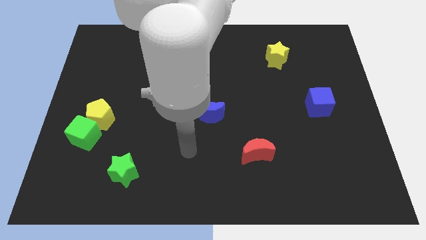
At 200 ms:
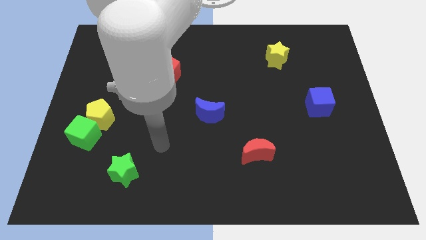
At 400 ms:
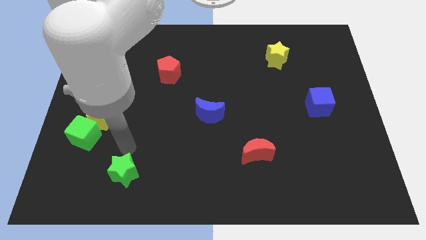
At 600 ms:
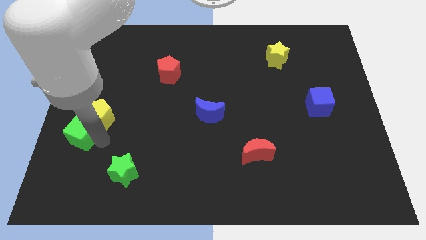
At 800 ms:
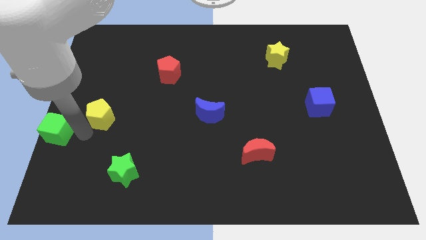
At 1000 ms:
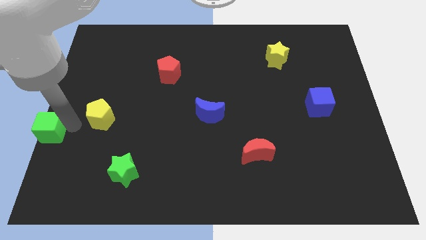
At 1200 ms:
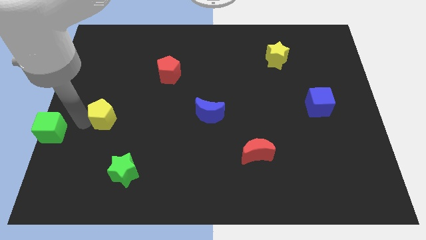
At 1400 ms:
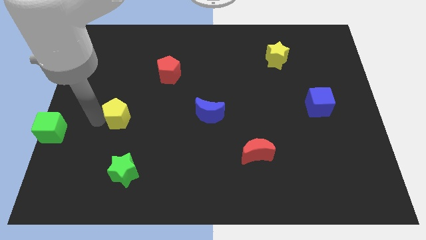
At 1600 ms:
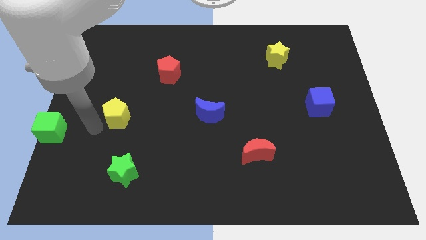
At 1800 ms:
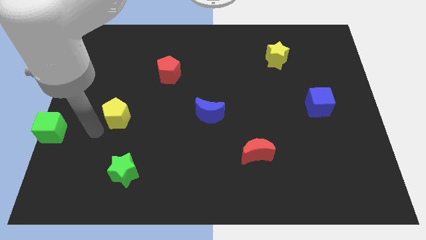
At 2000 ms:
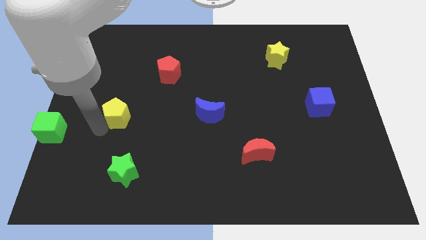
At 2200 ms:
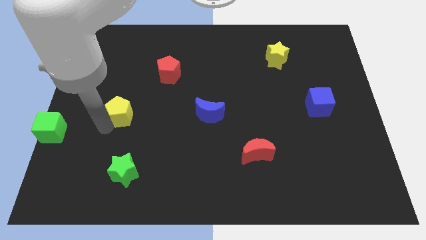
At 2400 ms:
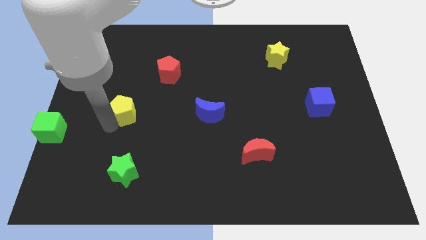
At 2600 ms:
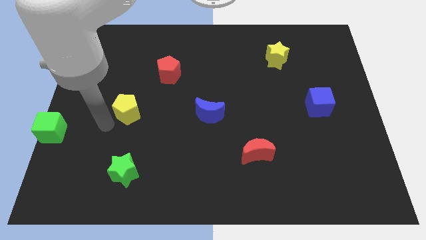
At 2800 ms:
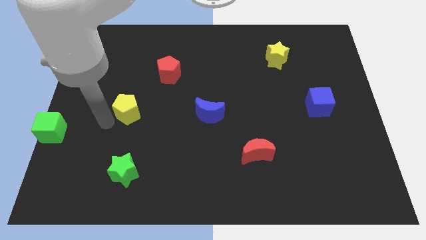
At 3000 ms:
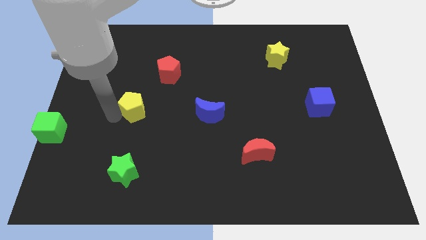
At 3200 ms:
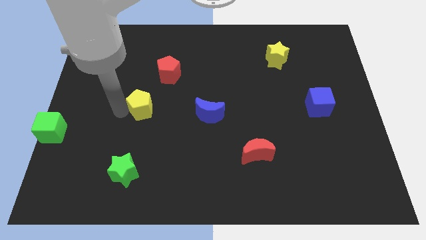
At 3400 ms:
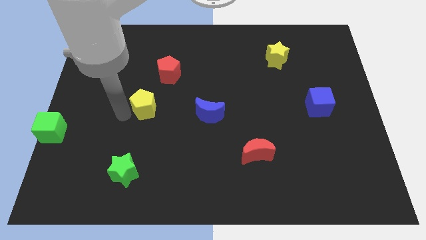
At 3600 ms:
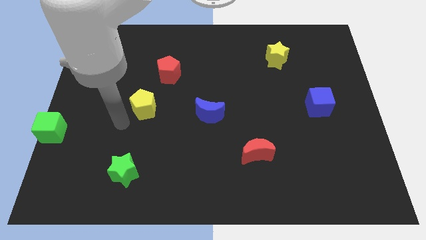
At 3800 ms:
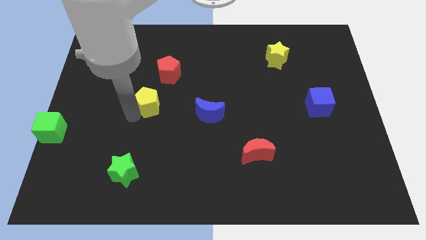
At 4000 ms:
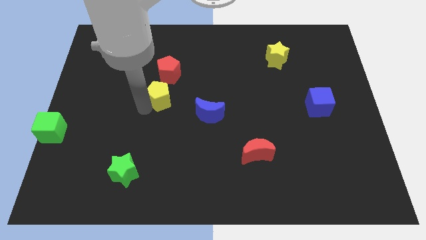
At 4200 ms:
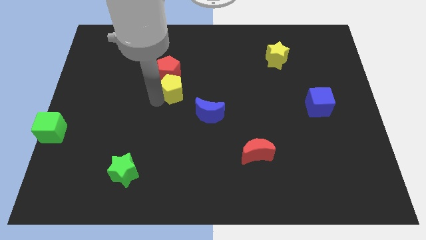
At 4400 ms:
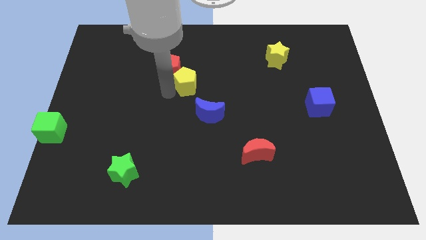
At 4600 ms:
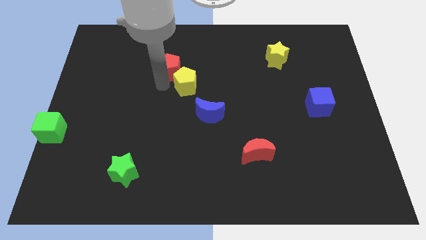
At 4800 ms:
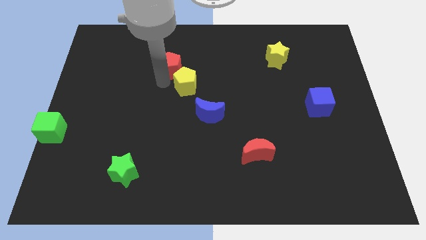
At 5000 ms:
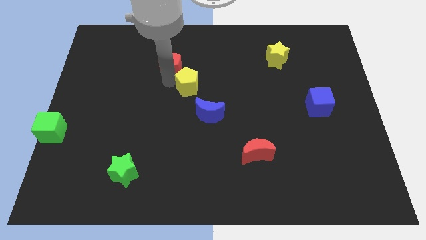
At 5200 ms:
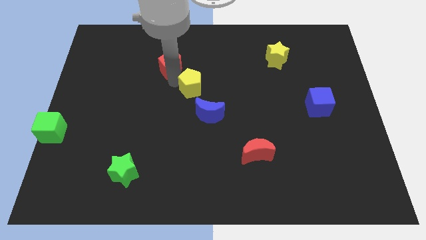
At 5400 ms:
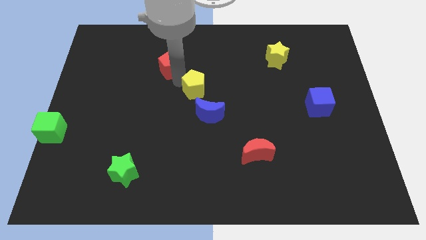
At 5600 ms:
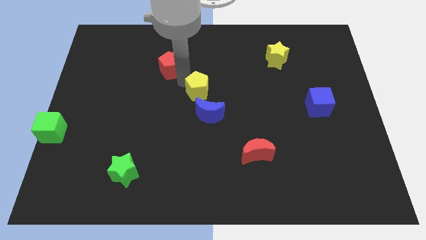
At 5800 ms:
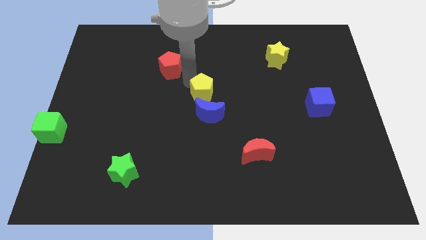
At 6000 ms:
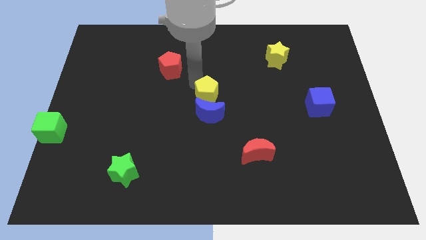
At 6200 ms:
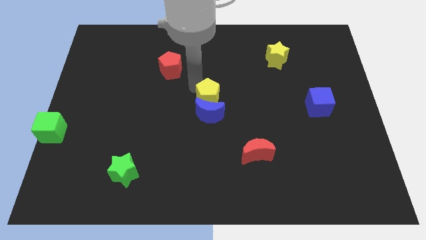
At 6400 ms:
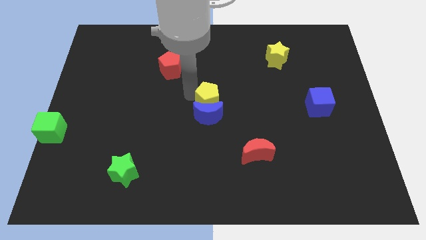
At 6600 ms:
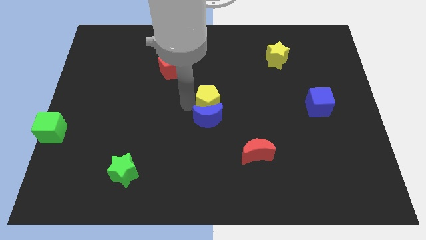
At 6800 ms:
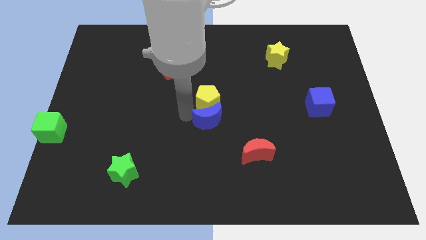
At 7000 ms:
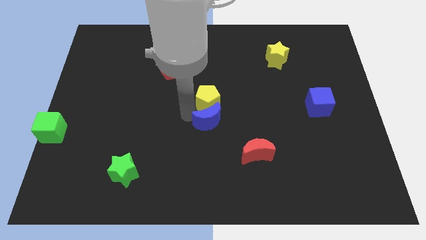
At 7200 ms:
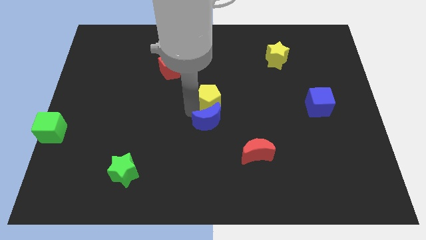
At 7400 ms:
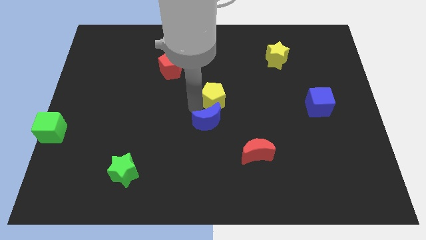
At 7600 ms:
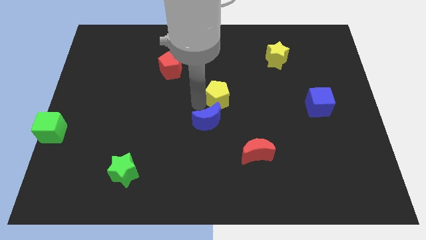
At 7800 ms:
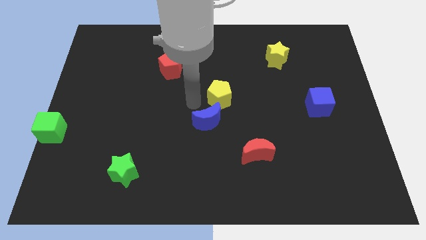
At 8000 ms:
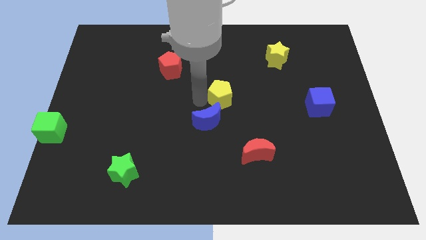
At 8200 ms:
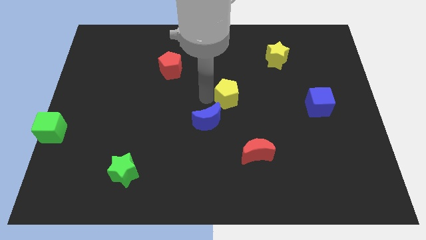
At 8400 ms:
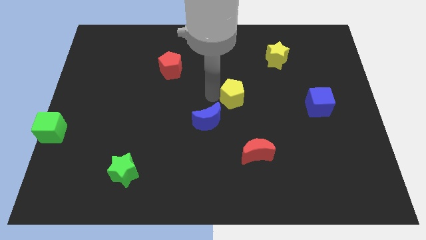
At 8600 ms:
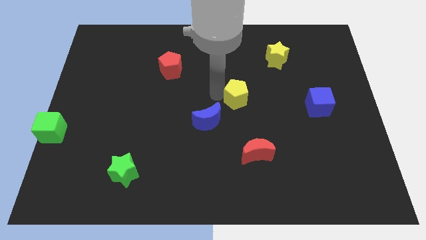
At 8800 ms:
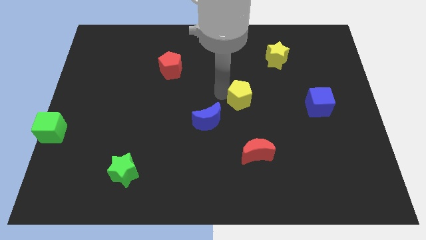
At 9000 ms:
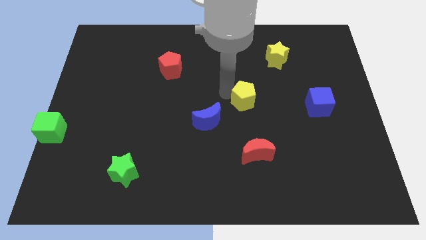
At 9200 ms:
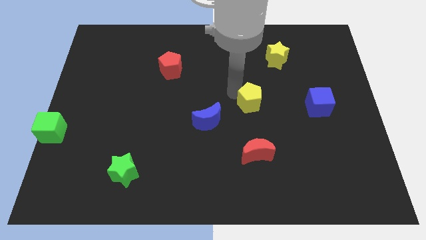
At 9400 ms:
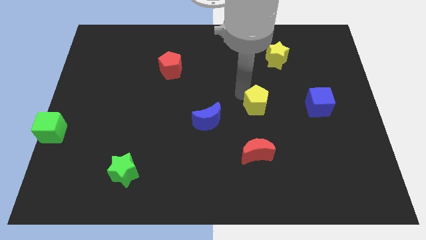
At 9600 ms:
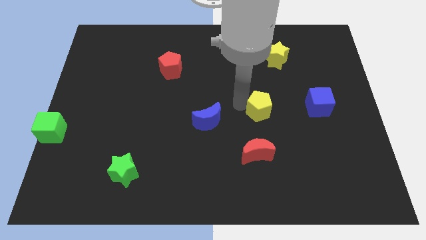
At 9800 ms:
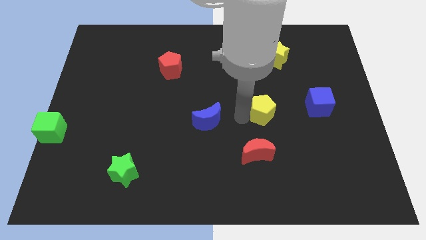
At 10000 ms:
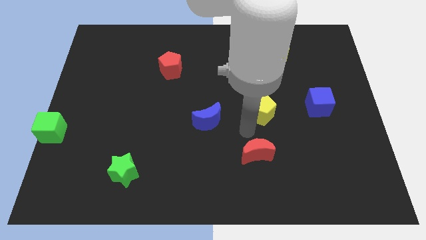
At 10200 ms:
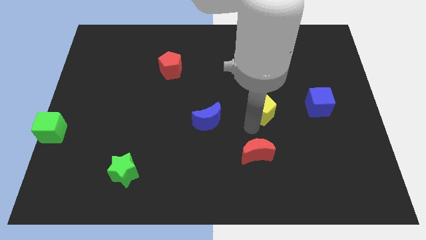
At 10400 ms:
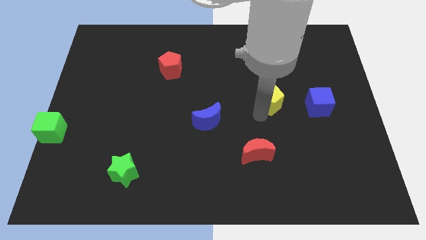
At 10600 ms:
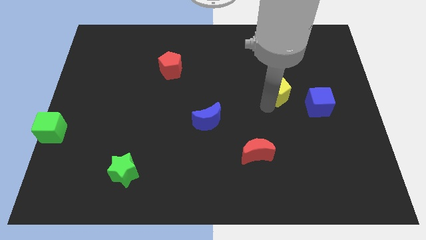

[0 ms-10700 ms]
put the yellow pentagon to the top left of the blue cube

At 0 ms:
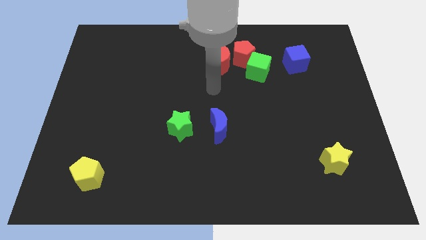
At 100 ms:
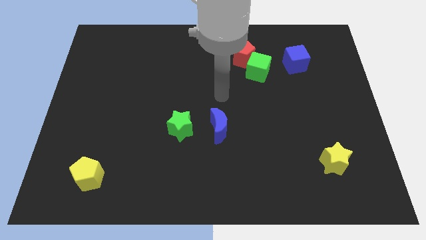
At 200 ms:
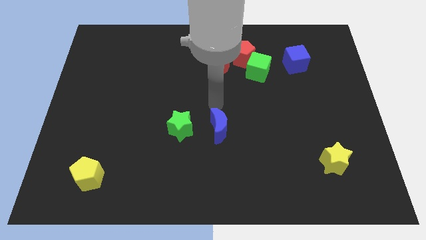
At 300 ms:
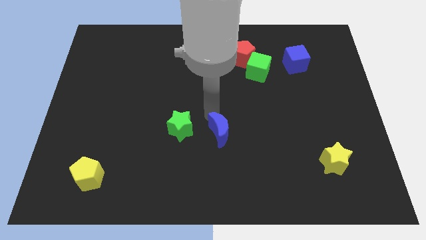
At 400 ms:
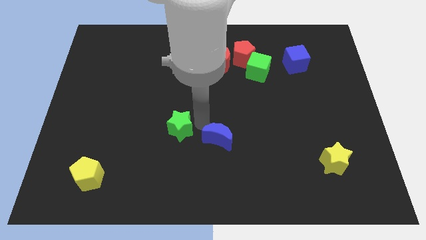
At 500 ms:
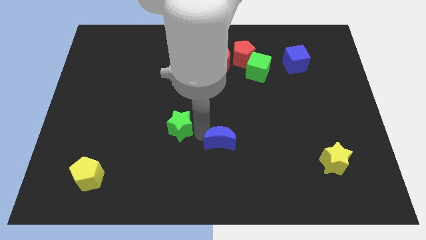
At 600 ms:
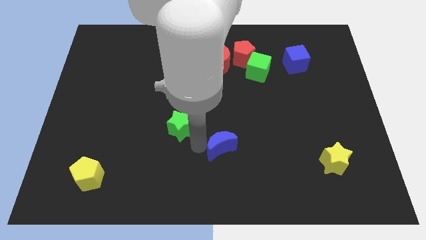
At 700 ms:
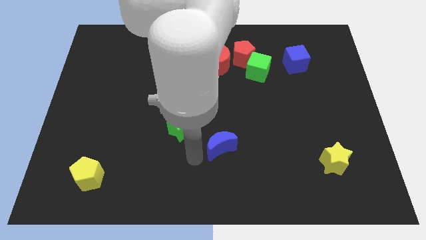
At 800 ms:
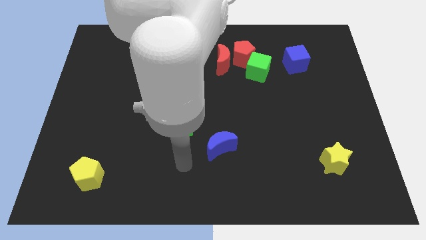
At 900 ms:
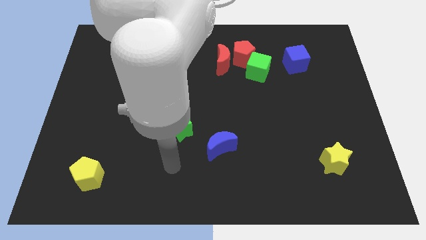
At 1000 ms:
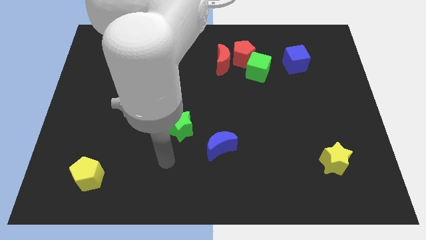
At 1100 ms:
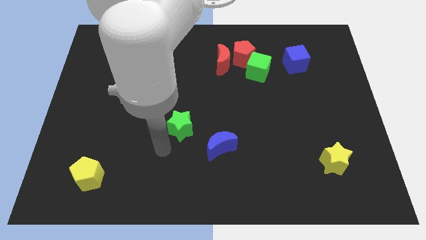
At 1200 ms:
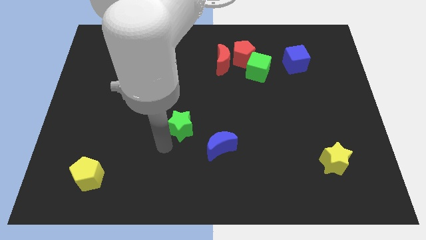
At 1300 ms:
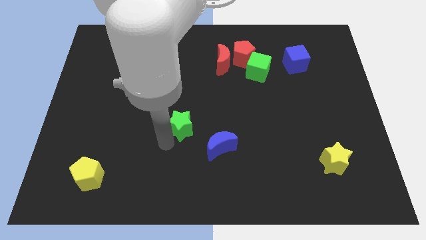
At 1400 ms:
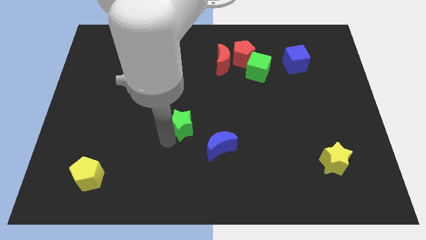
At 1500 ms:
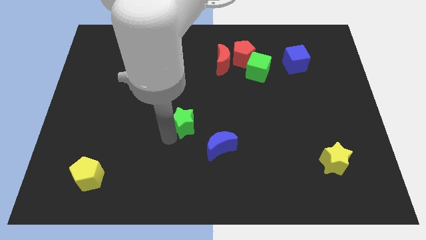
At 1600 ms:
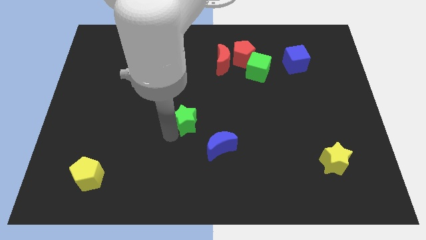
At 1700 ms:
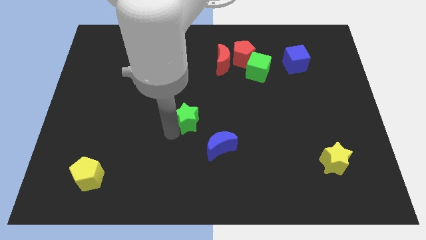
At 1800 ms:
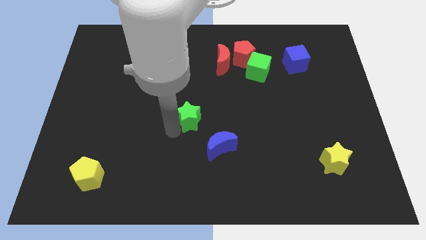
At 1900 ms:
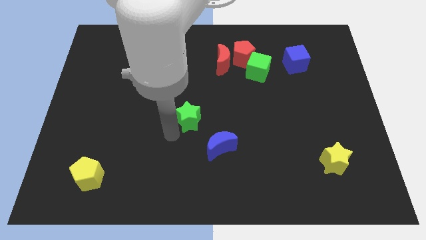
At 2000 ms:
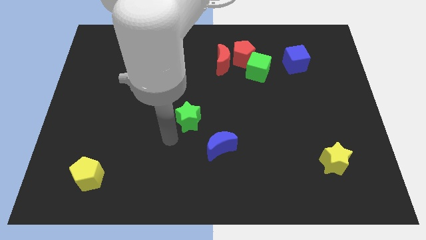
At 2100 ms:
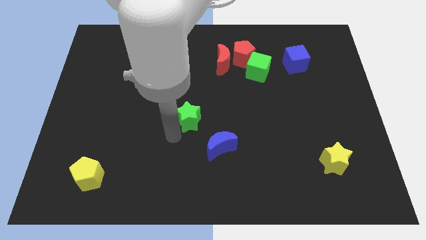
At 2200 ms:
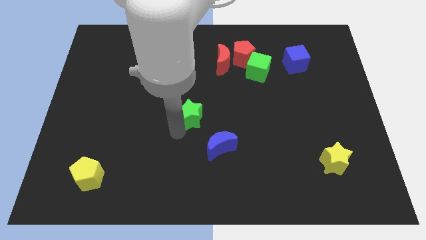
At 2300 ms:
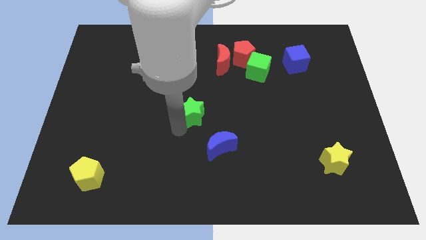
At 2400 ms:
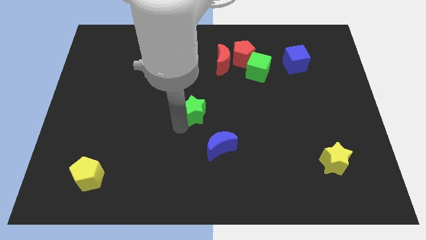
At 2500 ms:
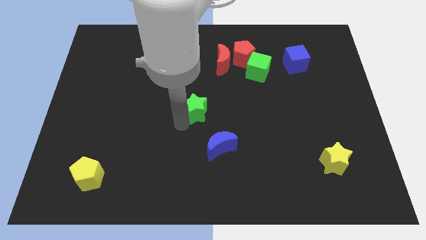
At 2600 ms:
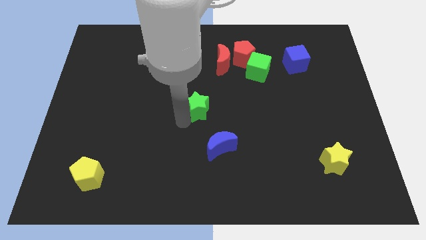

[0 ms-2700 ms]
push the green star above the blue moon
